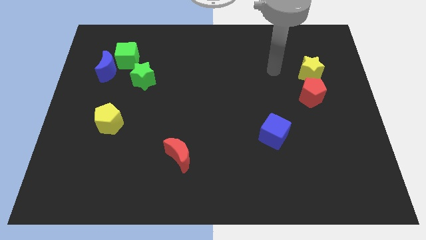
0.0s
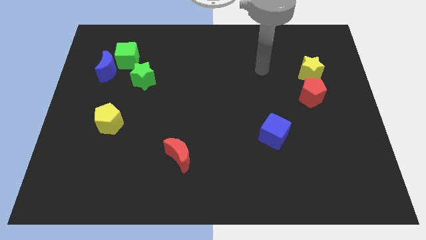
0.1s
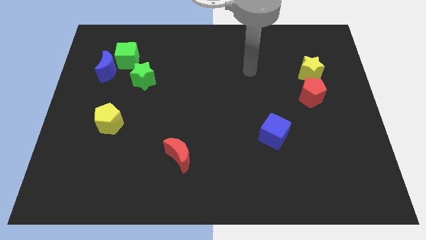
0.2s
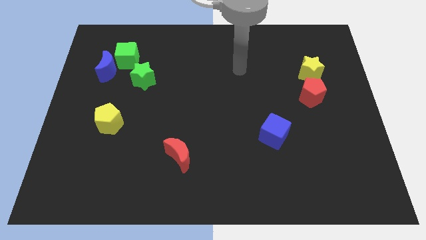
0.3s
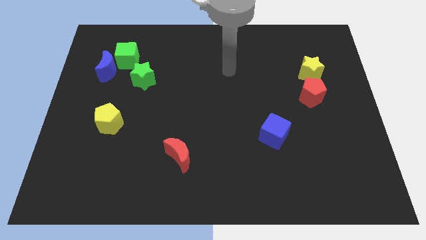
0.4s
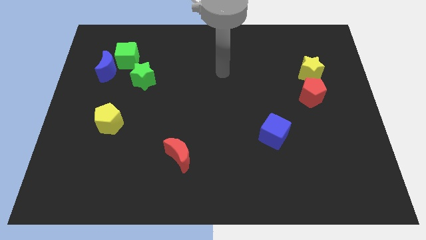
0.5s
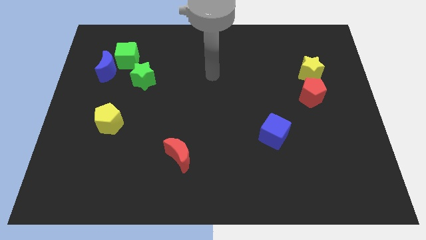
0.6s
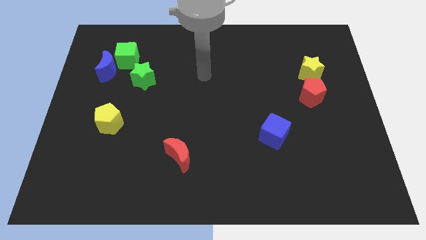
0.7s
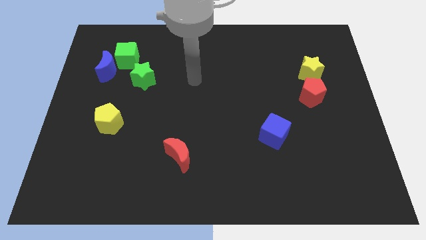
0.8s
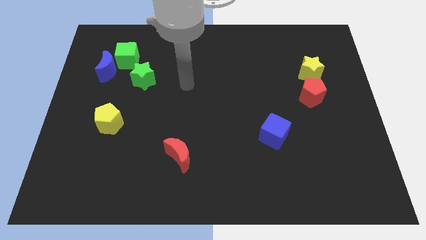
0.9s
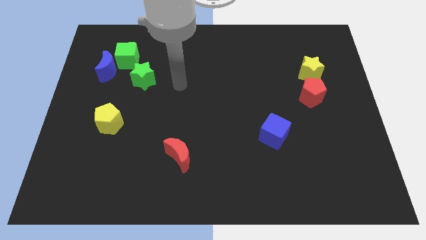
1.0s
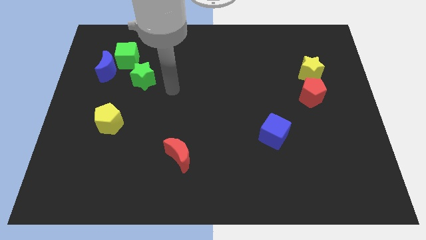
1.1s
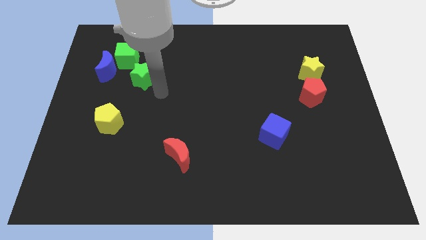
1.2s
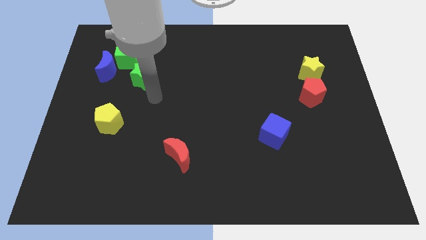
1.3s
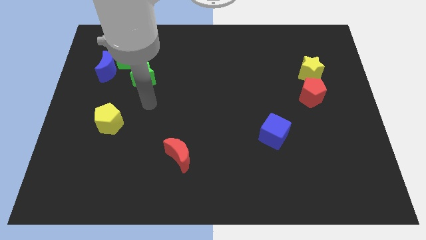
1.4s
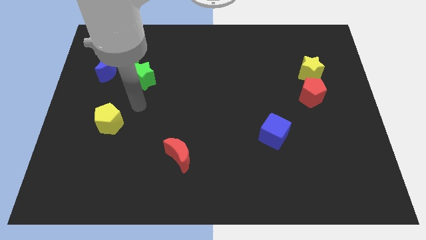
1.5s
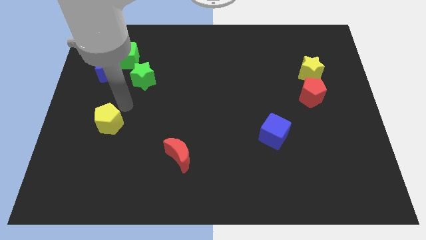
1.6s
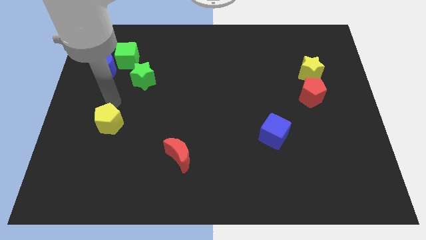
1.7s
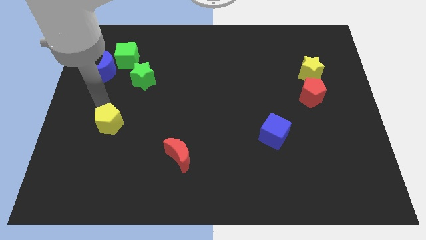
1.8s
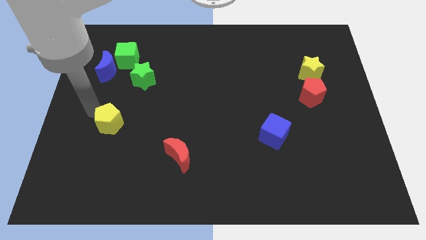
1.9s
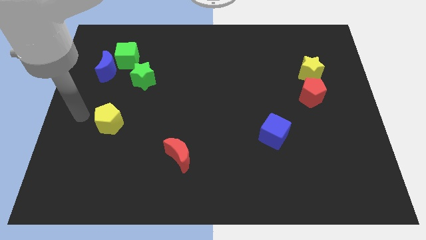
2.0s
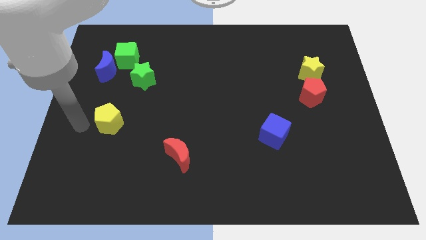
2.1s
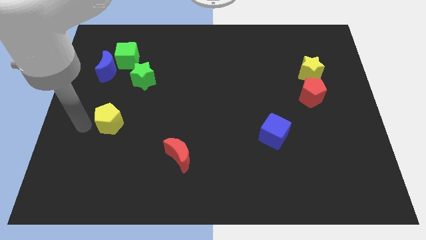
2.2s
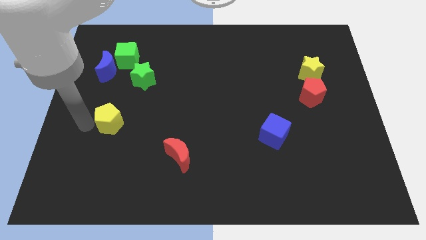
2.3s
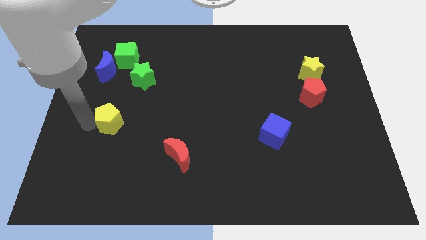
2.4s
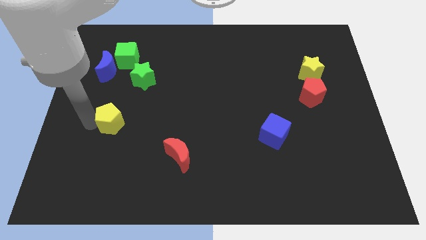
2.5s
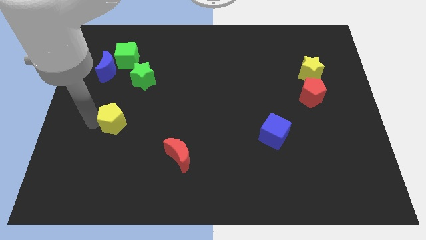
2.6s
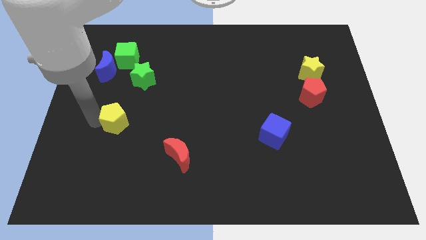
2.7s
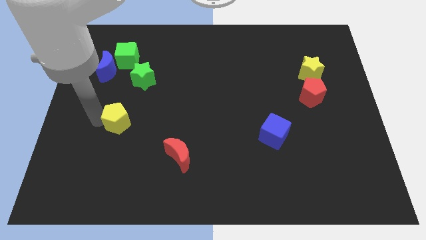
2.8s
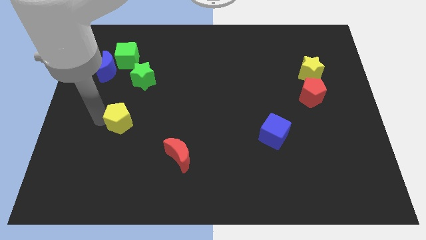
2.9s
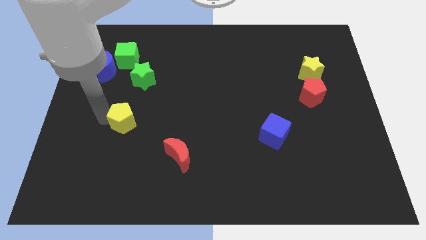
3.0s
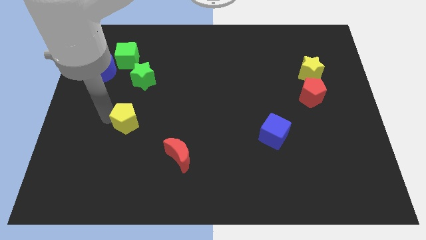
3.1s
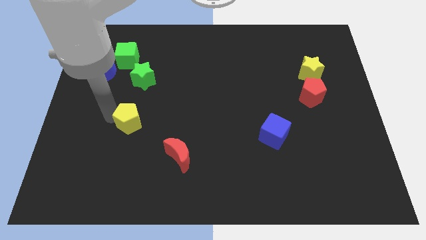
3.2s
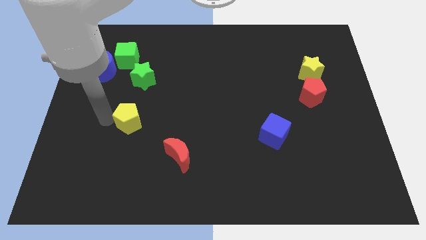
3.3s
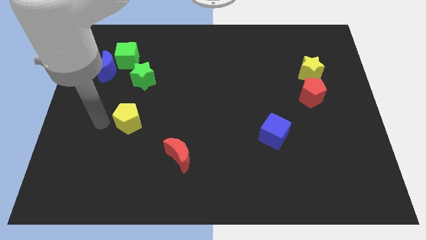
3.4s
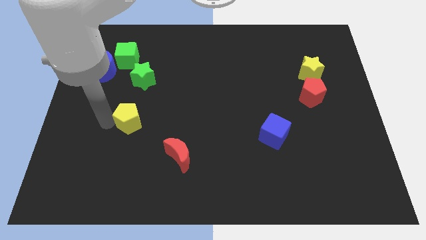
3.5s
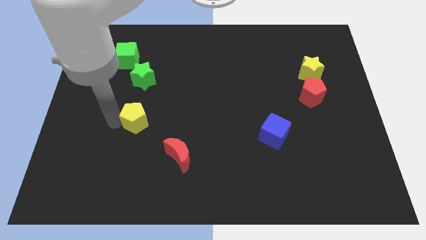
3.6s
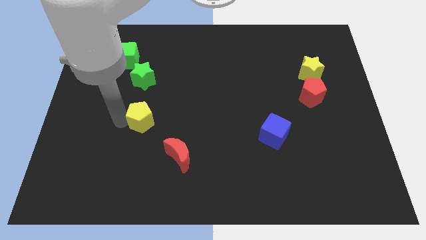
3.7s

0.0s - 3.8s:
push the yellow pentagon right a bit

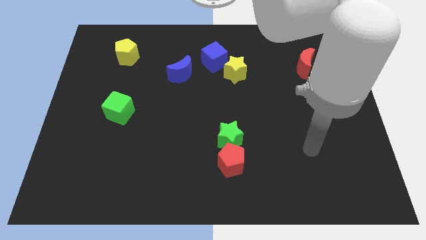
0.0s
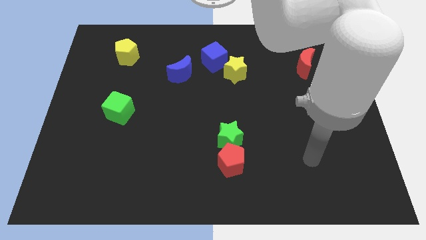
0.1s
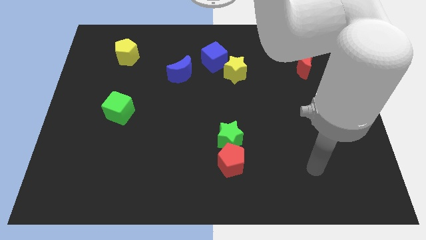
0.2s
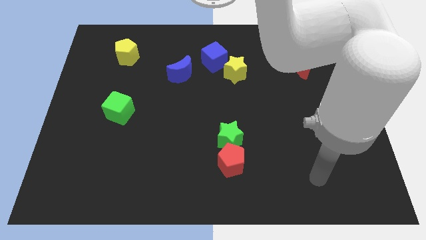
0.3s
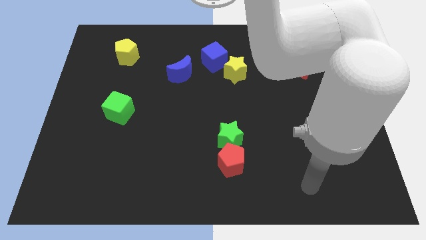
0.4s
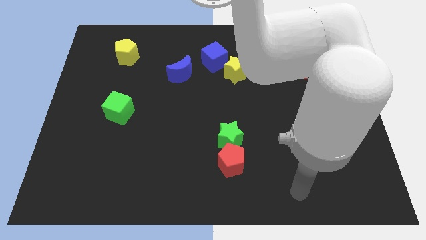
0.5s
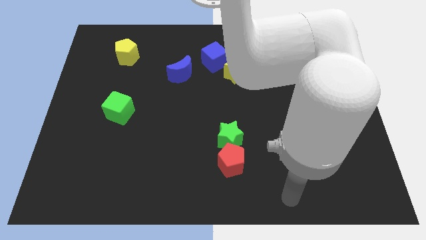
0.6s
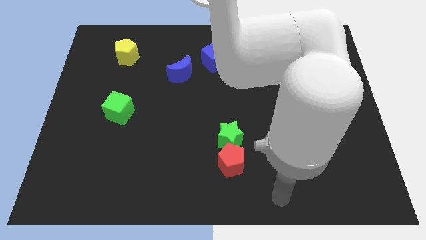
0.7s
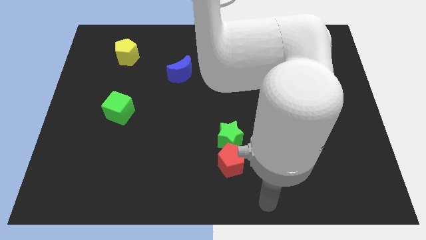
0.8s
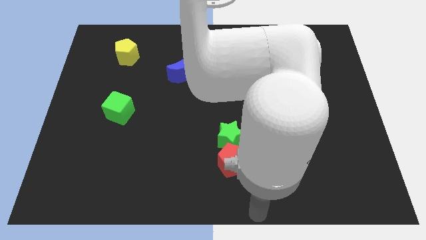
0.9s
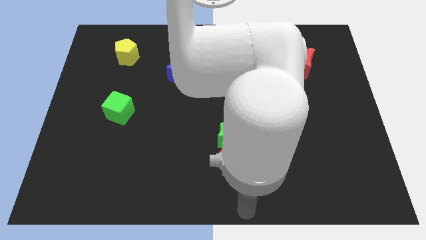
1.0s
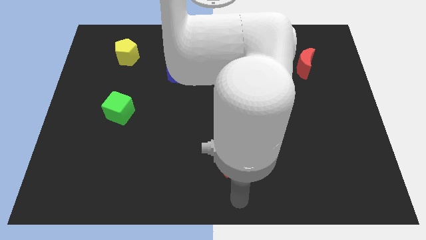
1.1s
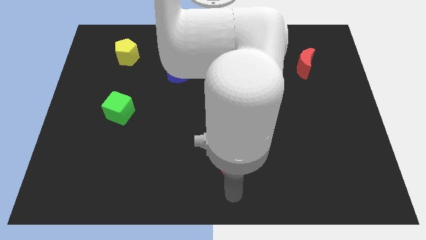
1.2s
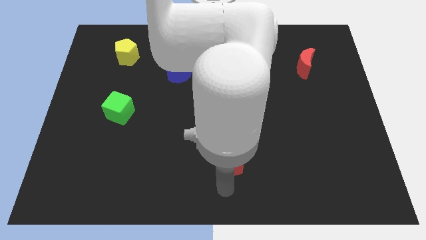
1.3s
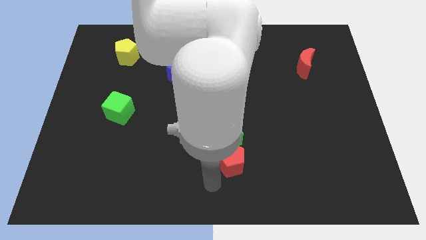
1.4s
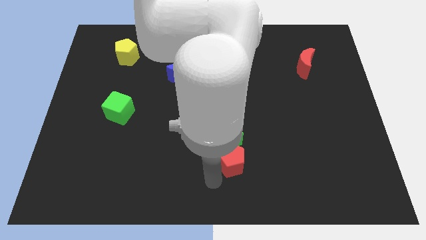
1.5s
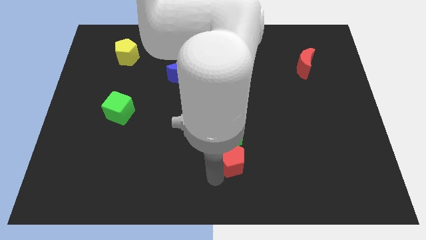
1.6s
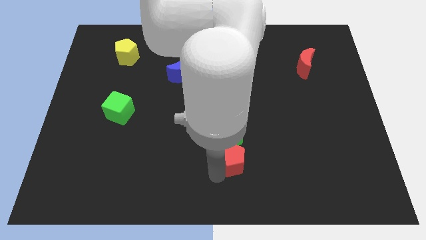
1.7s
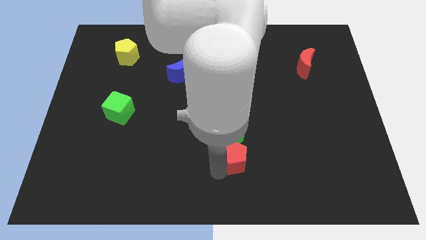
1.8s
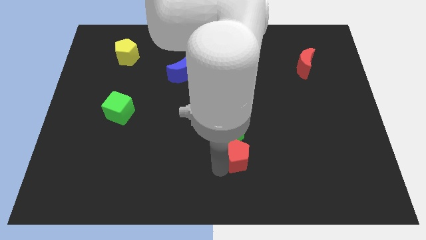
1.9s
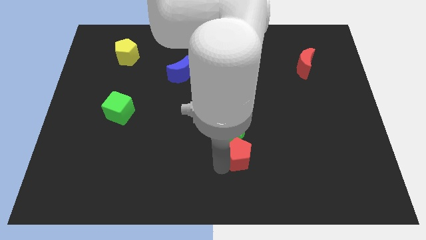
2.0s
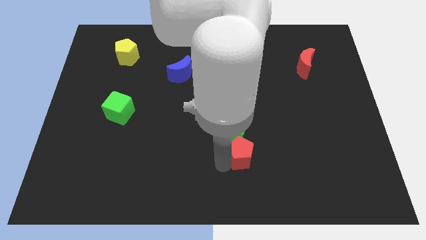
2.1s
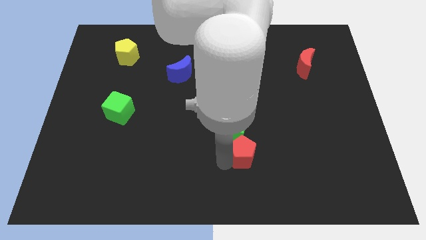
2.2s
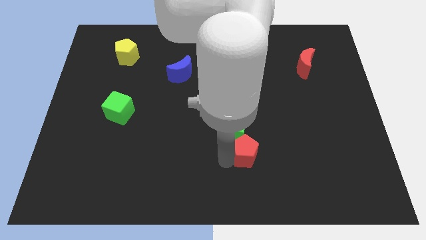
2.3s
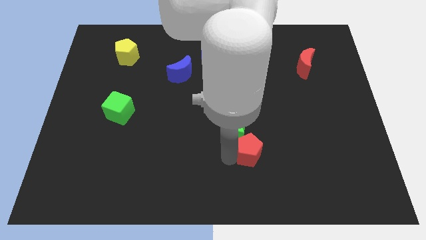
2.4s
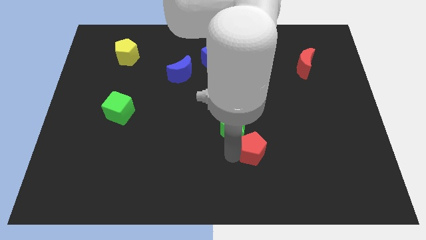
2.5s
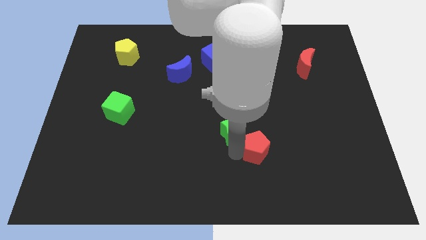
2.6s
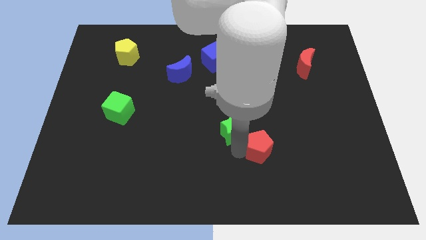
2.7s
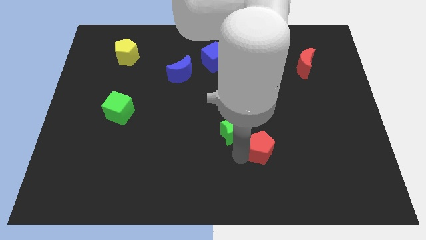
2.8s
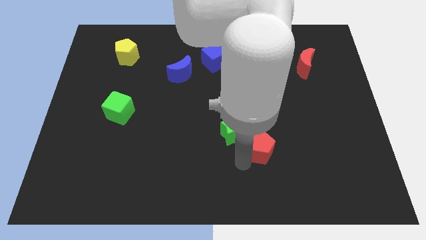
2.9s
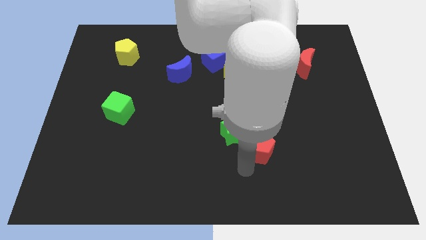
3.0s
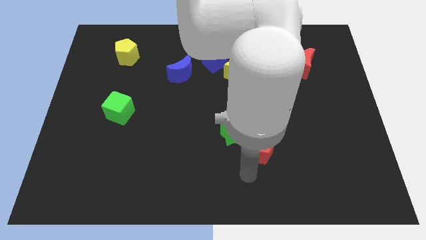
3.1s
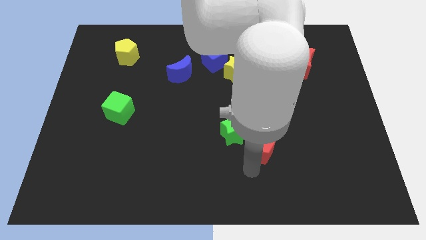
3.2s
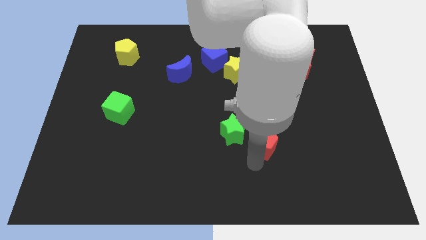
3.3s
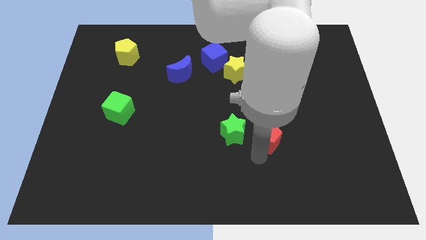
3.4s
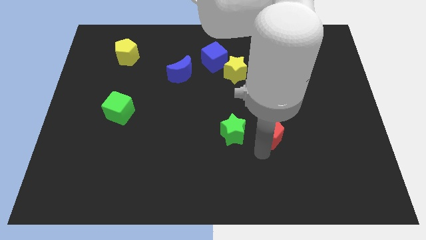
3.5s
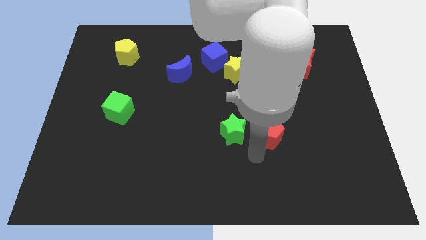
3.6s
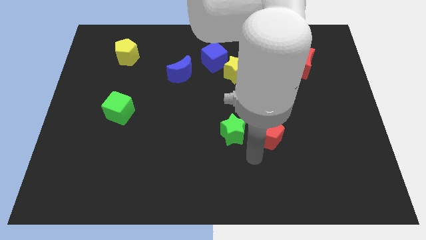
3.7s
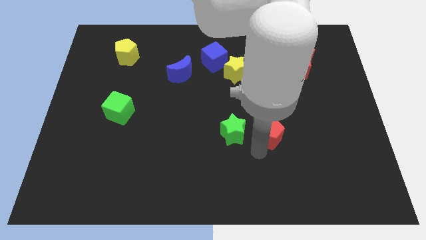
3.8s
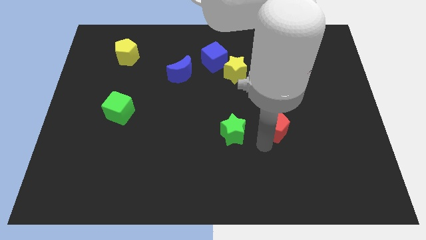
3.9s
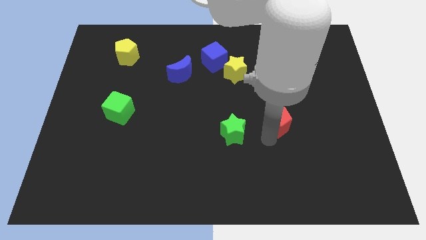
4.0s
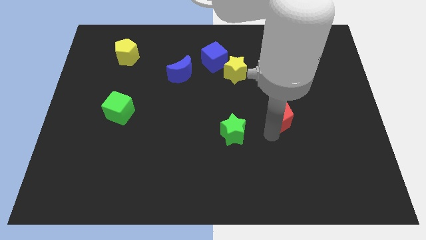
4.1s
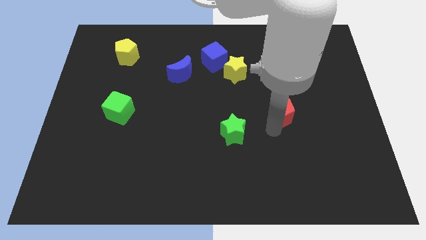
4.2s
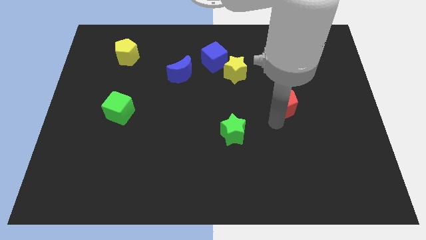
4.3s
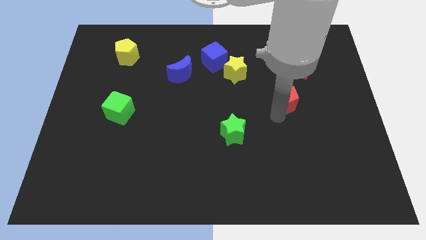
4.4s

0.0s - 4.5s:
push the red pentagon diagonally upwards and right
